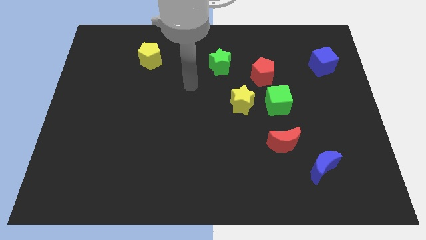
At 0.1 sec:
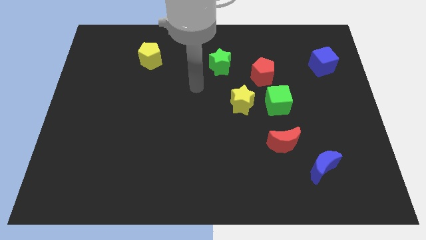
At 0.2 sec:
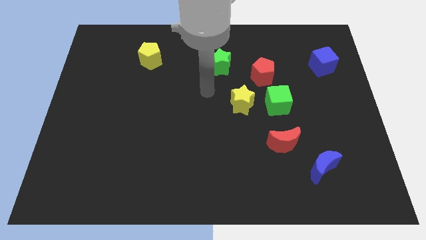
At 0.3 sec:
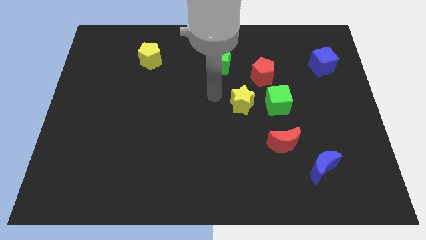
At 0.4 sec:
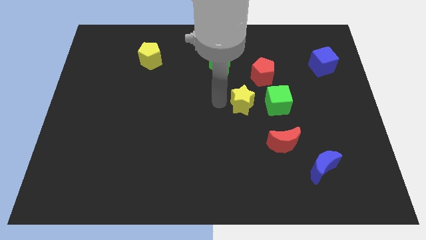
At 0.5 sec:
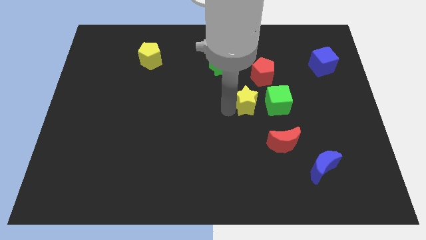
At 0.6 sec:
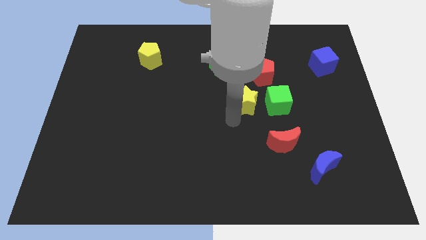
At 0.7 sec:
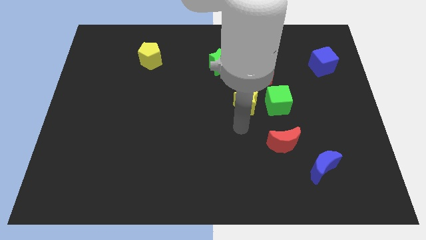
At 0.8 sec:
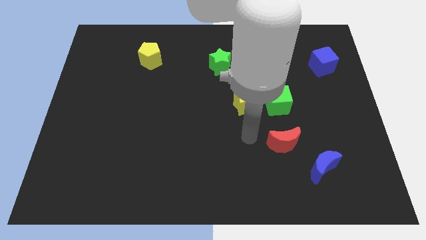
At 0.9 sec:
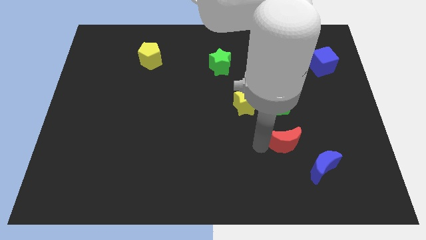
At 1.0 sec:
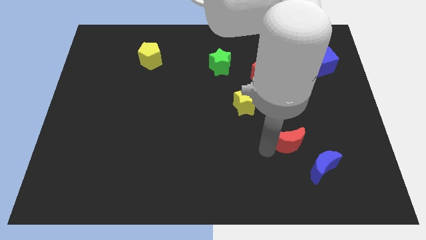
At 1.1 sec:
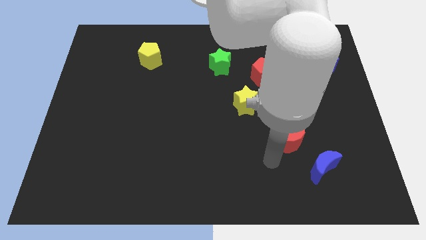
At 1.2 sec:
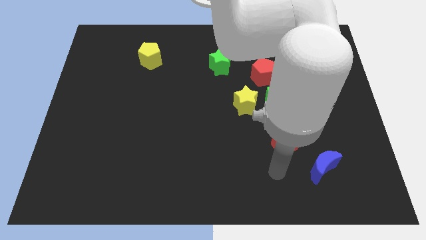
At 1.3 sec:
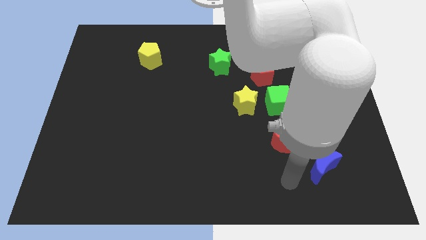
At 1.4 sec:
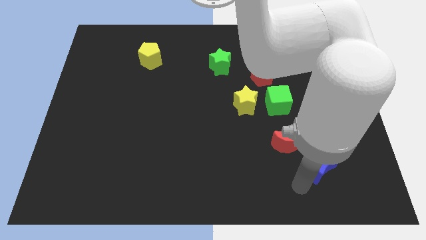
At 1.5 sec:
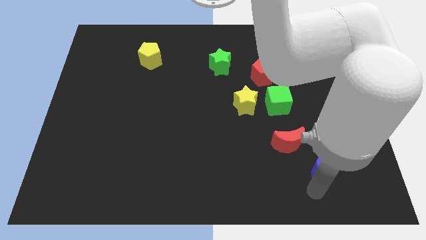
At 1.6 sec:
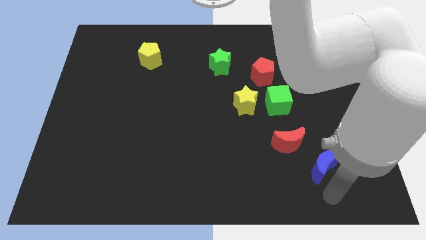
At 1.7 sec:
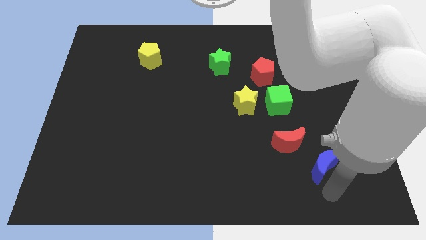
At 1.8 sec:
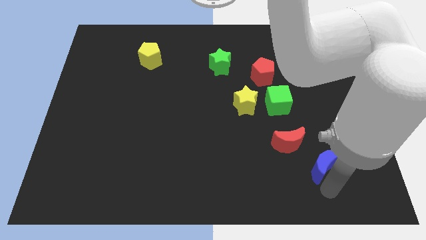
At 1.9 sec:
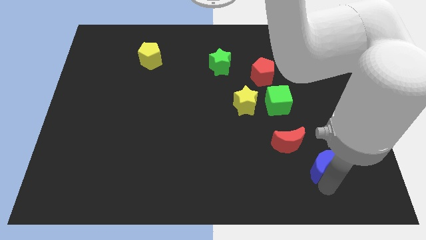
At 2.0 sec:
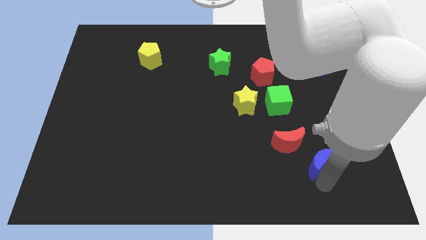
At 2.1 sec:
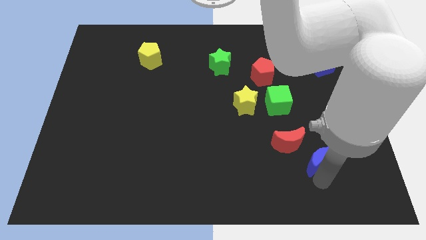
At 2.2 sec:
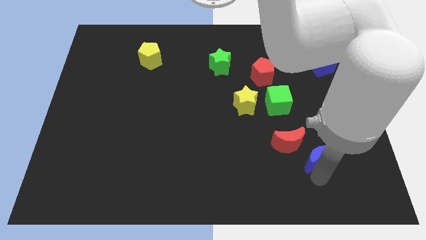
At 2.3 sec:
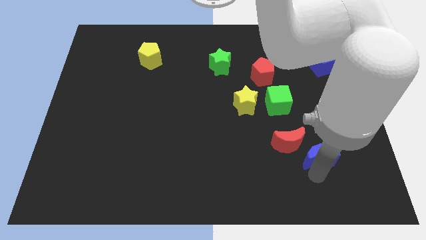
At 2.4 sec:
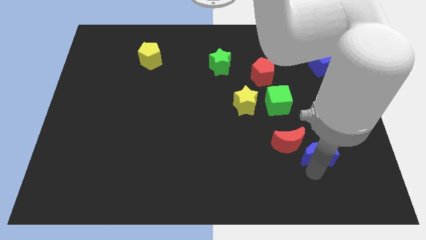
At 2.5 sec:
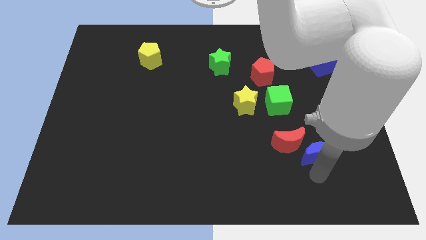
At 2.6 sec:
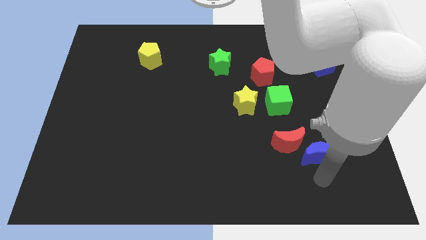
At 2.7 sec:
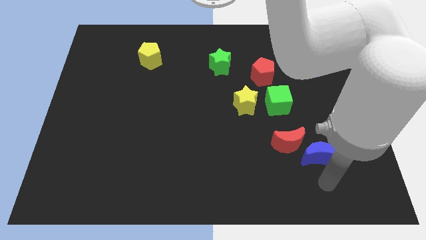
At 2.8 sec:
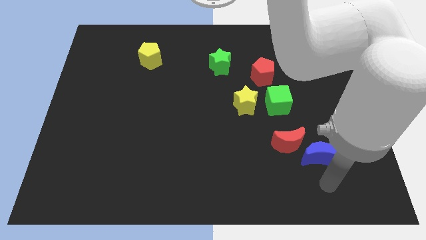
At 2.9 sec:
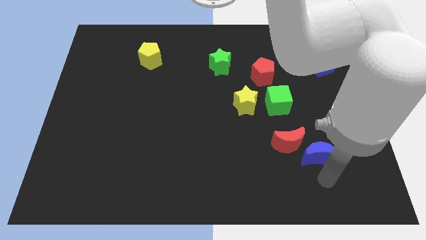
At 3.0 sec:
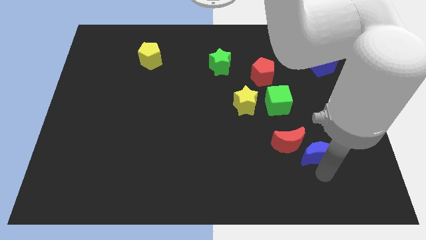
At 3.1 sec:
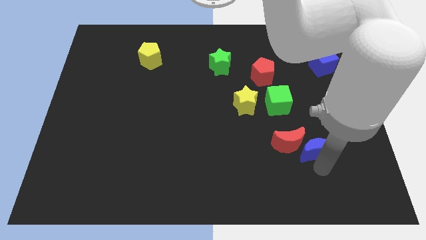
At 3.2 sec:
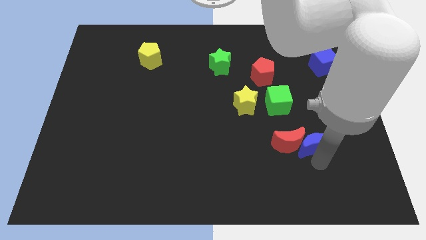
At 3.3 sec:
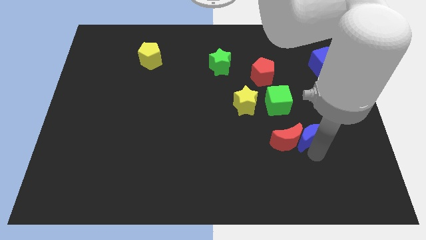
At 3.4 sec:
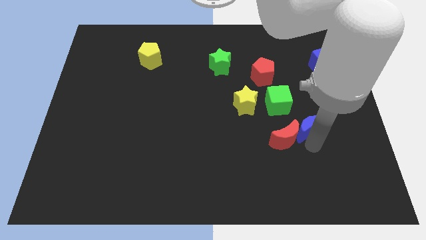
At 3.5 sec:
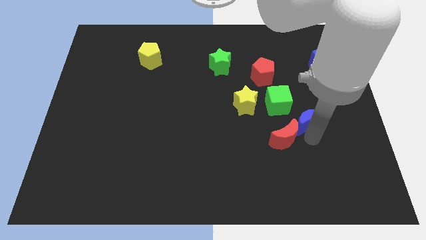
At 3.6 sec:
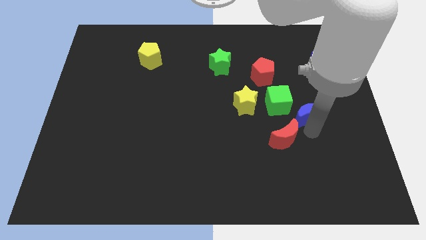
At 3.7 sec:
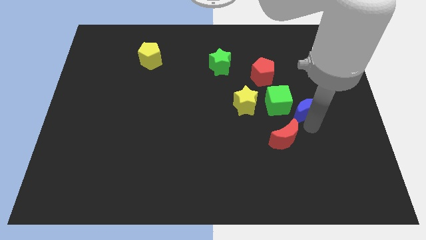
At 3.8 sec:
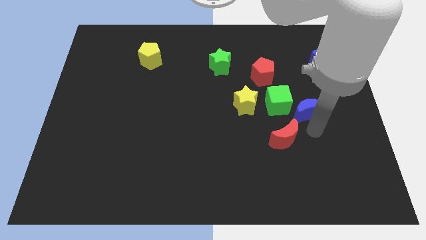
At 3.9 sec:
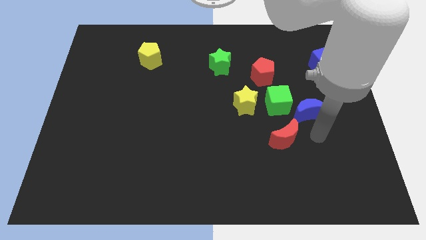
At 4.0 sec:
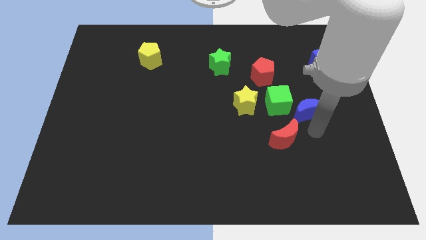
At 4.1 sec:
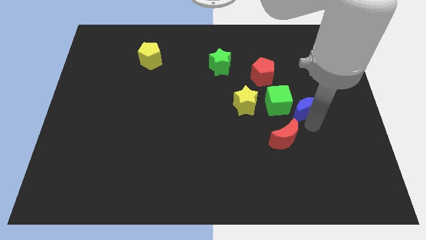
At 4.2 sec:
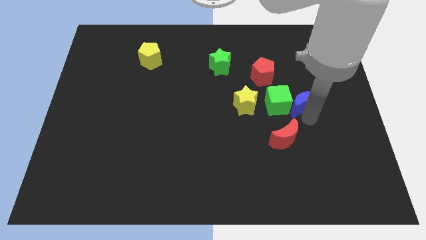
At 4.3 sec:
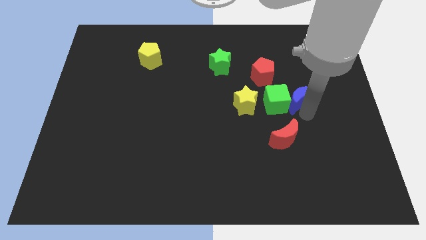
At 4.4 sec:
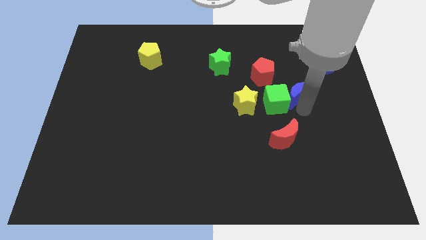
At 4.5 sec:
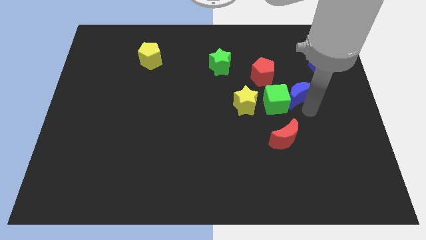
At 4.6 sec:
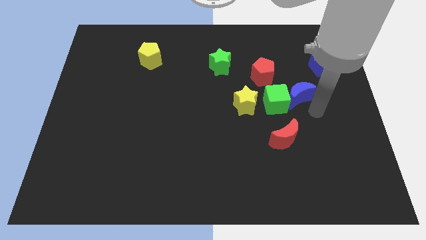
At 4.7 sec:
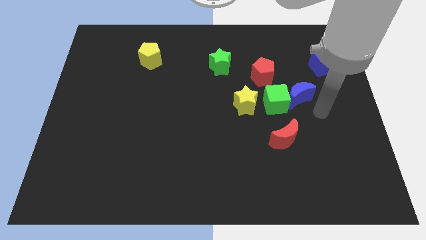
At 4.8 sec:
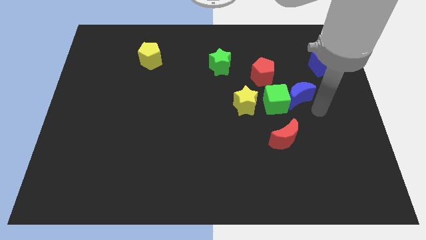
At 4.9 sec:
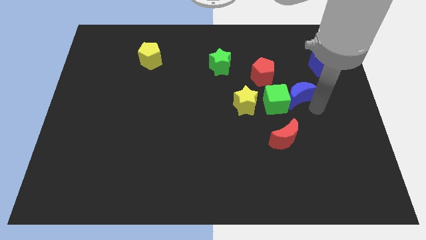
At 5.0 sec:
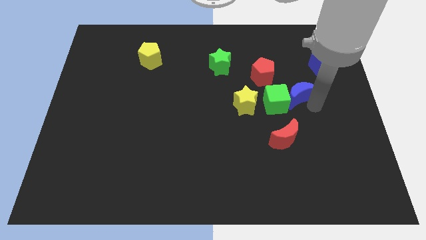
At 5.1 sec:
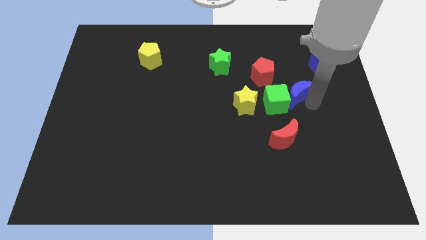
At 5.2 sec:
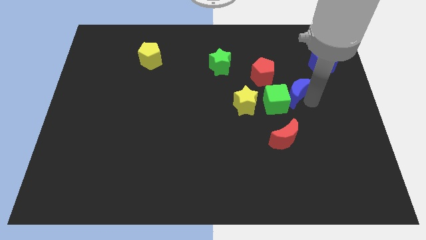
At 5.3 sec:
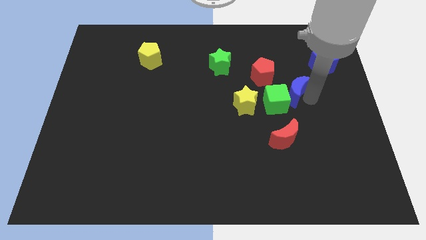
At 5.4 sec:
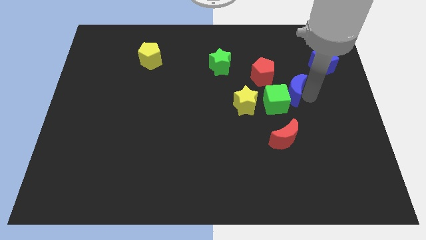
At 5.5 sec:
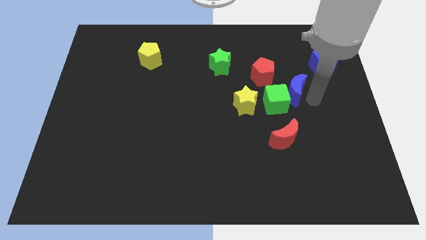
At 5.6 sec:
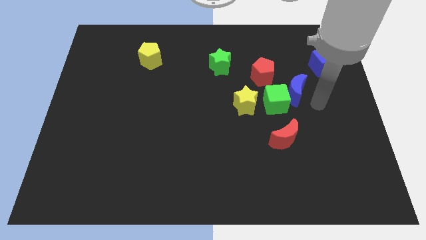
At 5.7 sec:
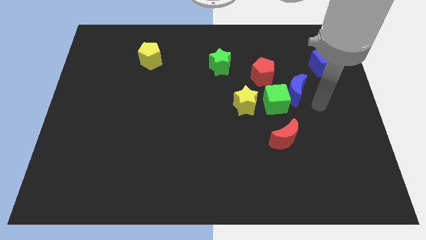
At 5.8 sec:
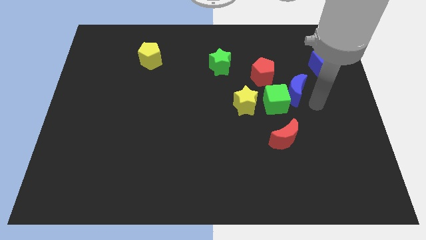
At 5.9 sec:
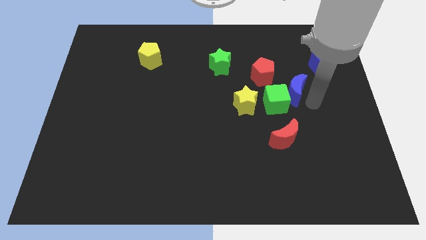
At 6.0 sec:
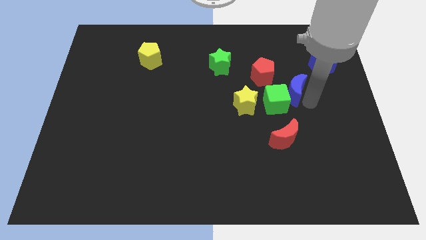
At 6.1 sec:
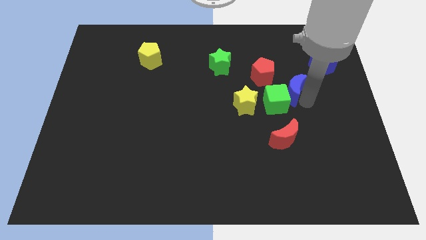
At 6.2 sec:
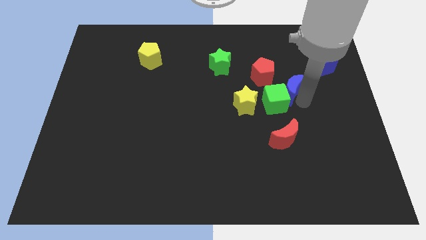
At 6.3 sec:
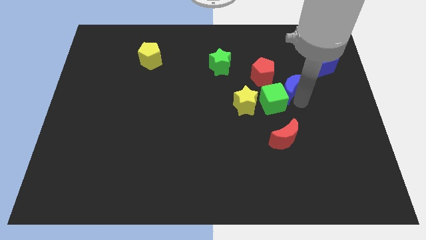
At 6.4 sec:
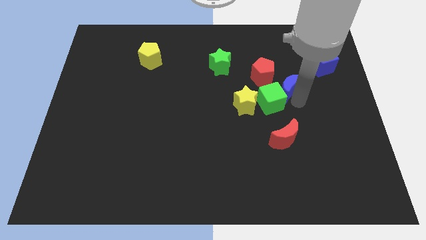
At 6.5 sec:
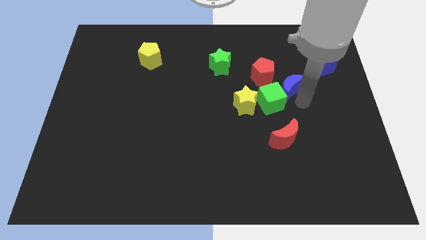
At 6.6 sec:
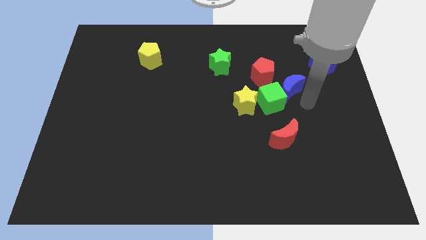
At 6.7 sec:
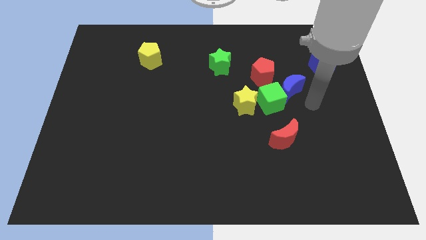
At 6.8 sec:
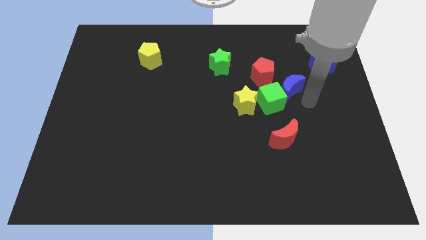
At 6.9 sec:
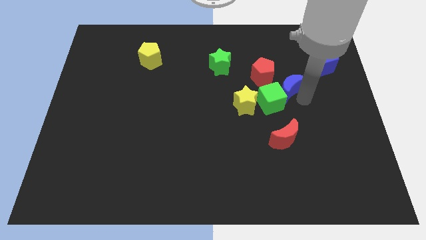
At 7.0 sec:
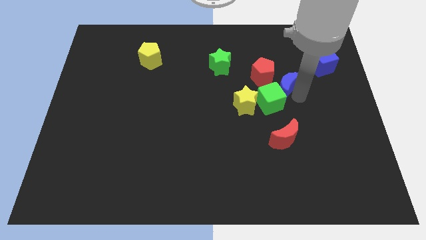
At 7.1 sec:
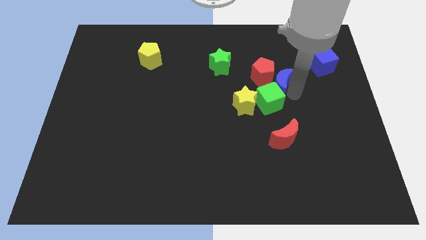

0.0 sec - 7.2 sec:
push the blue moon next to the red pentagon

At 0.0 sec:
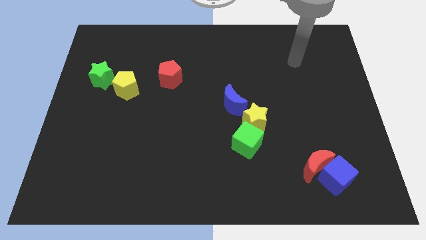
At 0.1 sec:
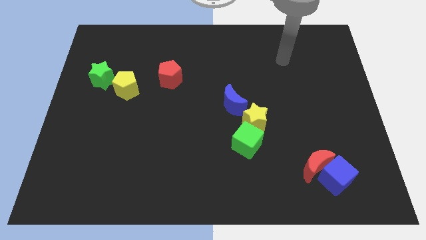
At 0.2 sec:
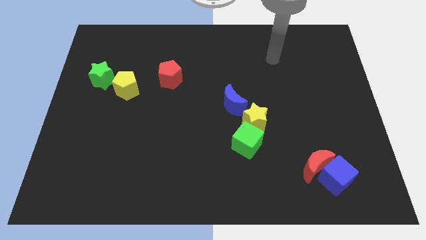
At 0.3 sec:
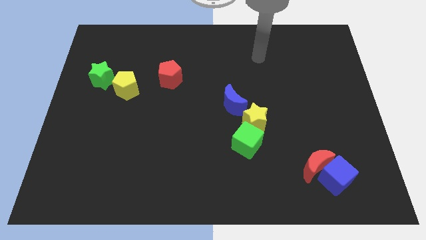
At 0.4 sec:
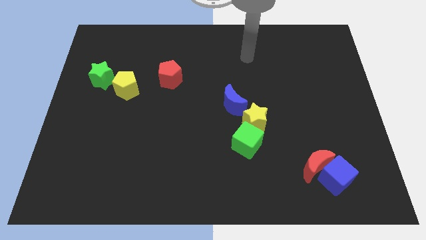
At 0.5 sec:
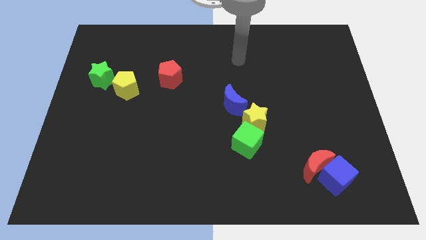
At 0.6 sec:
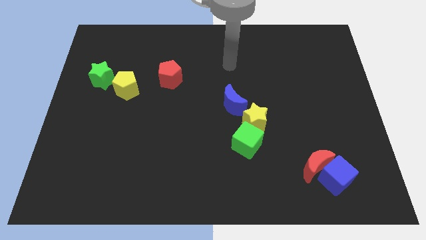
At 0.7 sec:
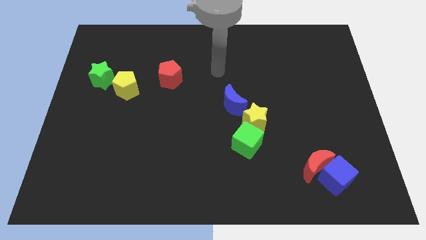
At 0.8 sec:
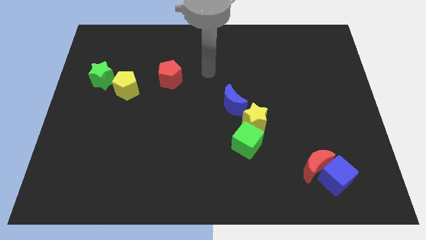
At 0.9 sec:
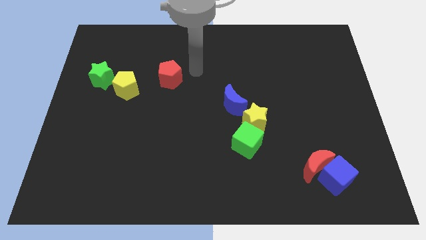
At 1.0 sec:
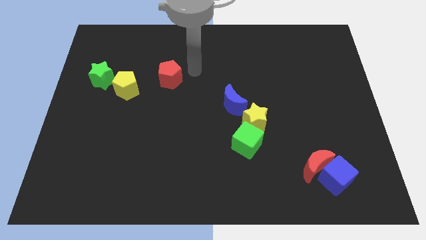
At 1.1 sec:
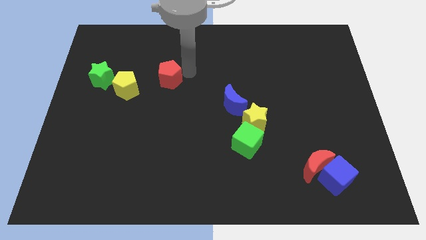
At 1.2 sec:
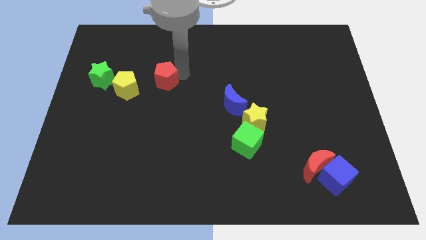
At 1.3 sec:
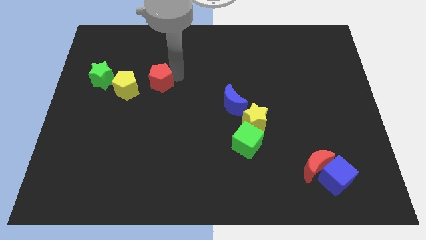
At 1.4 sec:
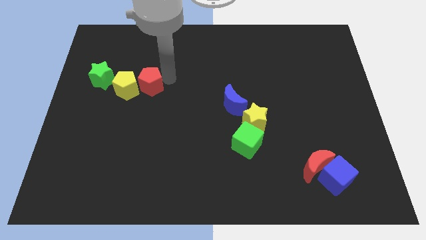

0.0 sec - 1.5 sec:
push the red pentagon close to the yellow pentagon
